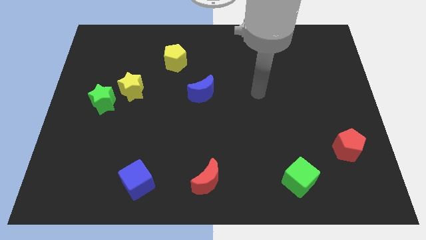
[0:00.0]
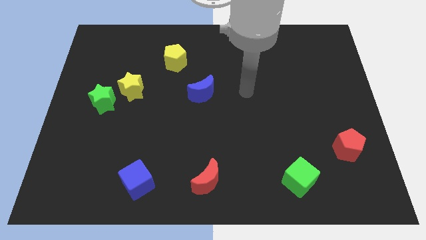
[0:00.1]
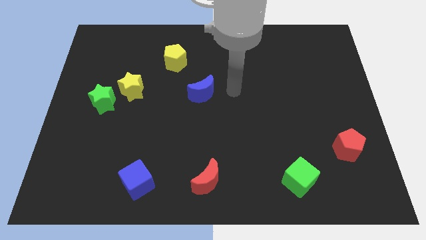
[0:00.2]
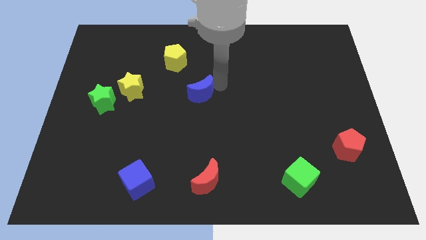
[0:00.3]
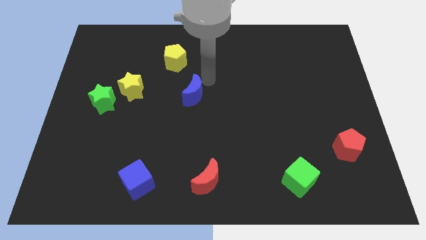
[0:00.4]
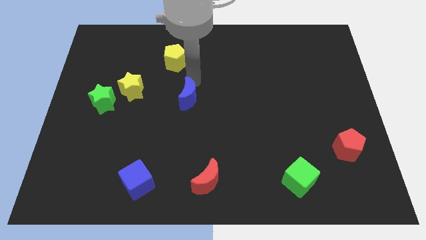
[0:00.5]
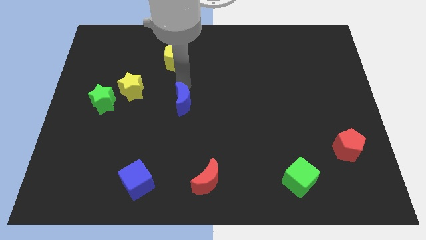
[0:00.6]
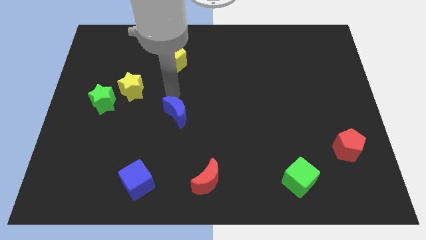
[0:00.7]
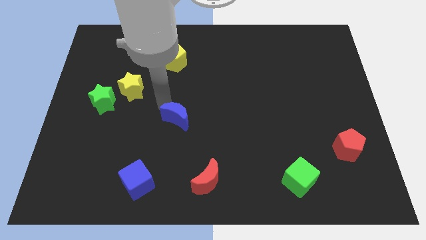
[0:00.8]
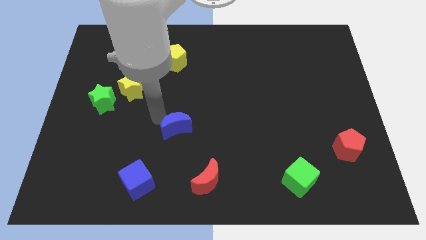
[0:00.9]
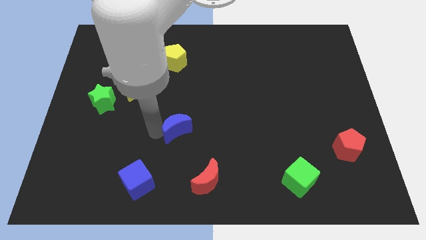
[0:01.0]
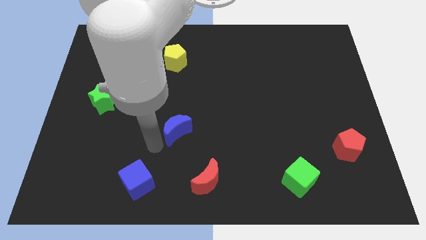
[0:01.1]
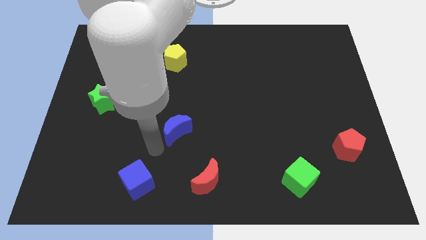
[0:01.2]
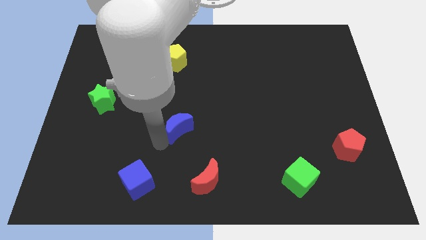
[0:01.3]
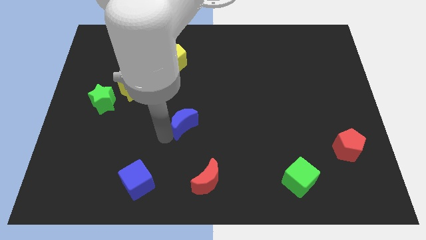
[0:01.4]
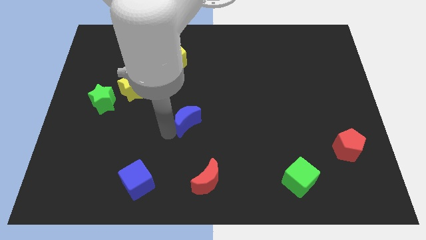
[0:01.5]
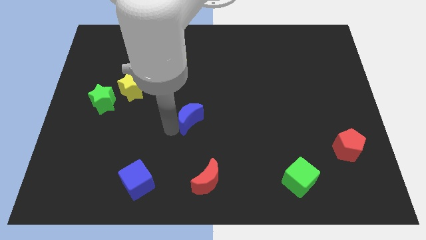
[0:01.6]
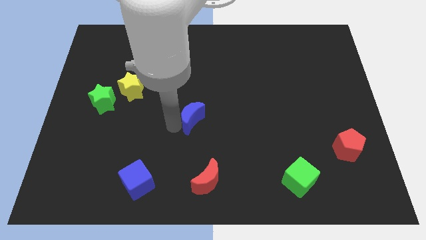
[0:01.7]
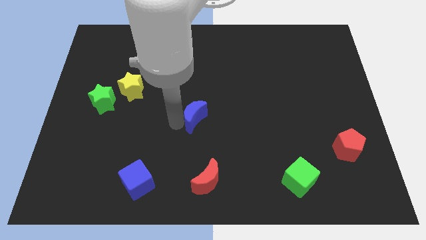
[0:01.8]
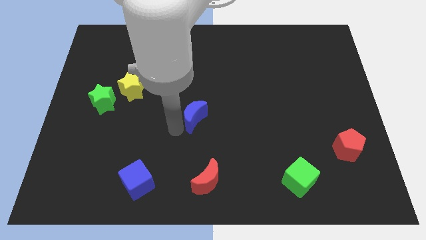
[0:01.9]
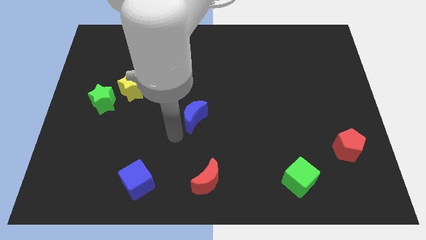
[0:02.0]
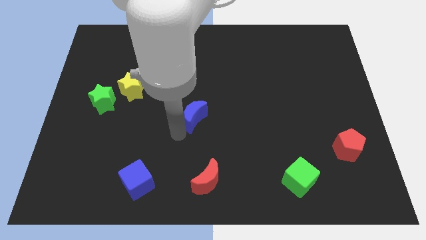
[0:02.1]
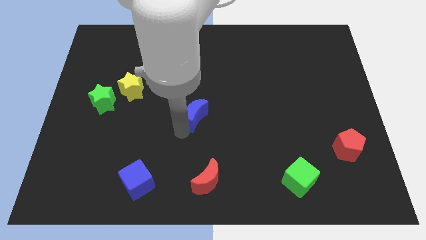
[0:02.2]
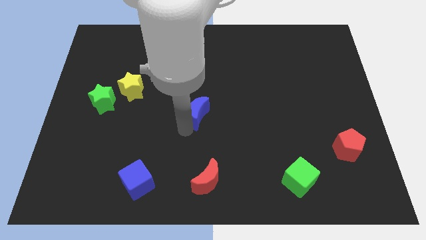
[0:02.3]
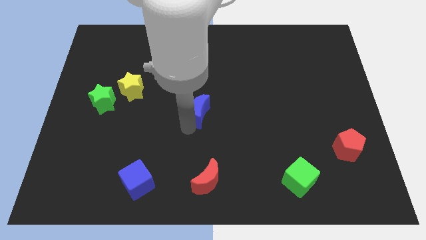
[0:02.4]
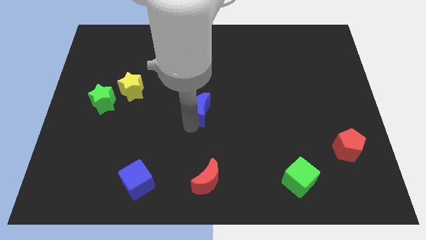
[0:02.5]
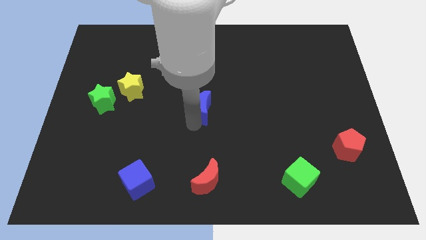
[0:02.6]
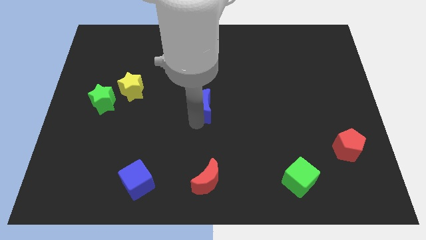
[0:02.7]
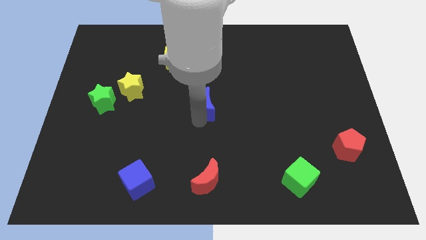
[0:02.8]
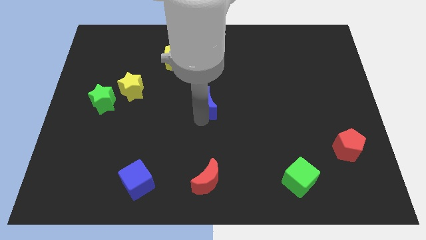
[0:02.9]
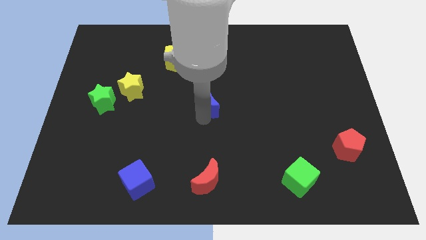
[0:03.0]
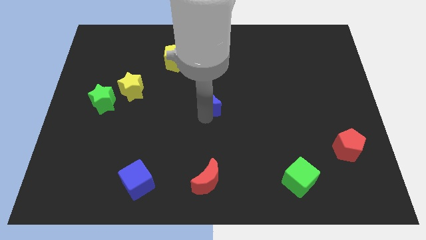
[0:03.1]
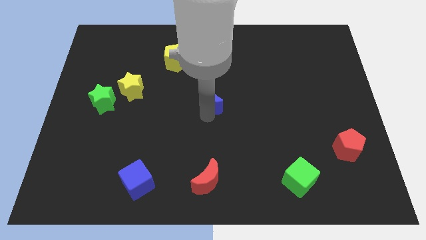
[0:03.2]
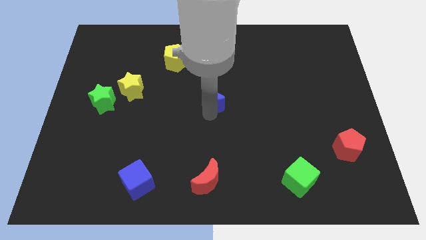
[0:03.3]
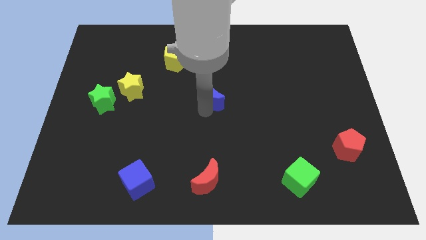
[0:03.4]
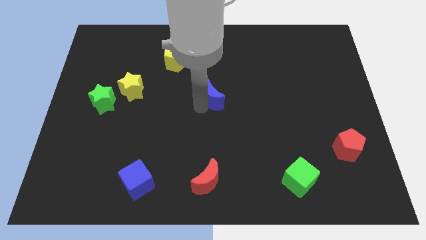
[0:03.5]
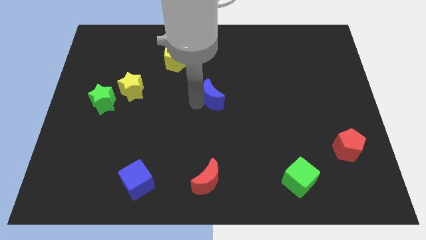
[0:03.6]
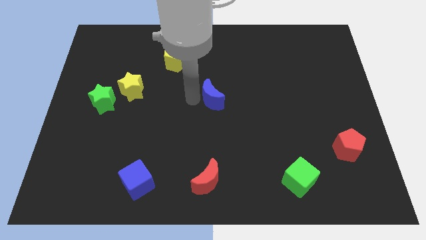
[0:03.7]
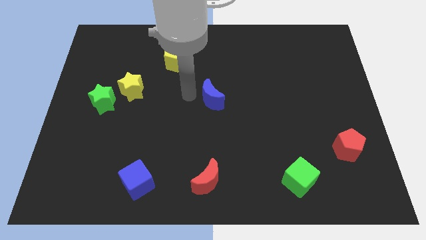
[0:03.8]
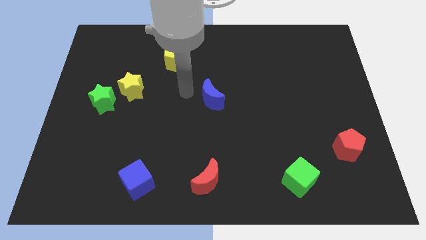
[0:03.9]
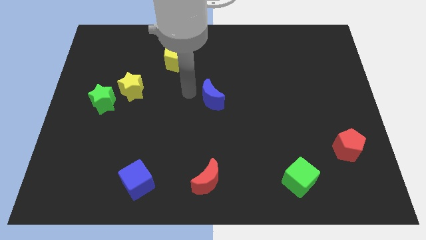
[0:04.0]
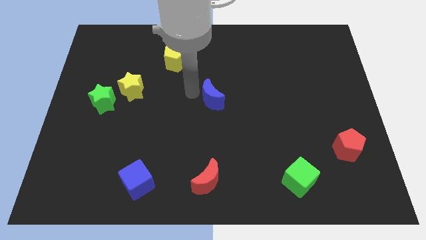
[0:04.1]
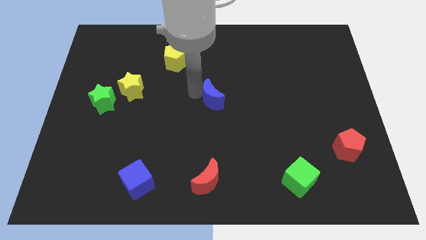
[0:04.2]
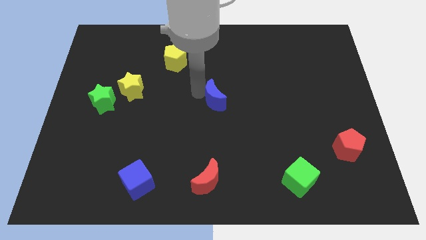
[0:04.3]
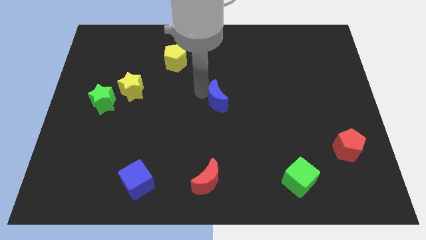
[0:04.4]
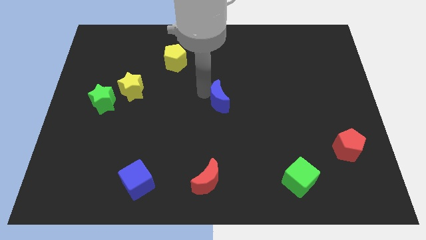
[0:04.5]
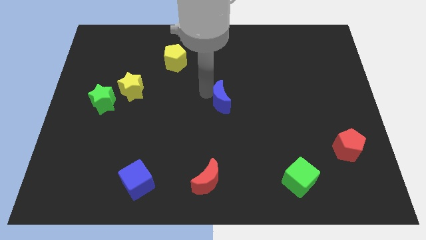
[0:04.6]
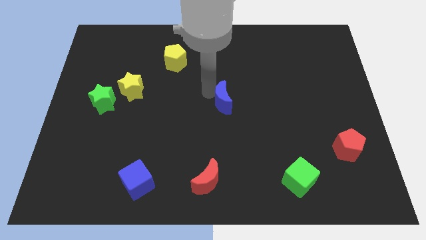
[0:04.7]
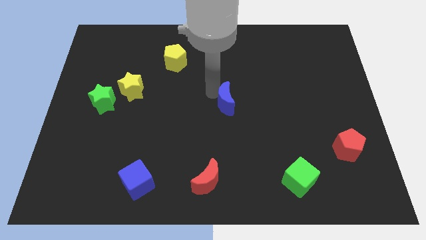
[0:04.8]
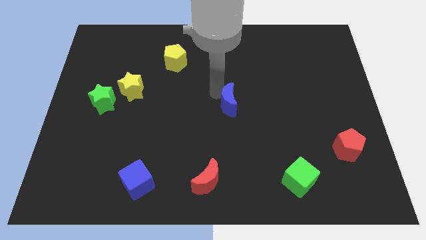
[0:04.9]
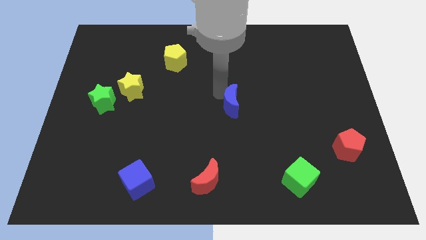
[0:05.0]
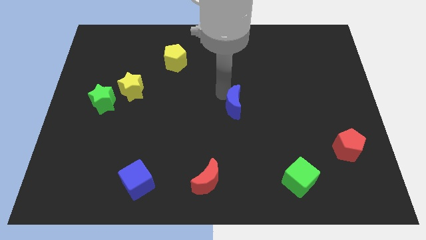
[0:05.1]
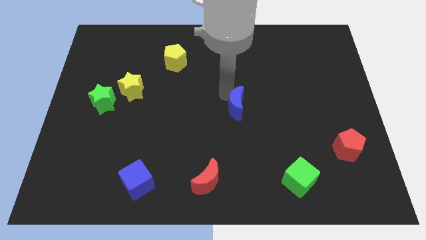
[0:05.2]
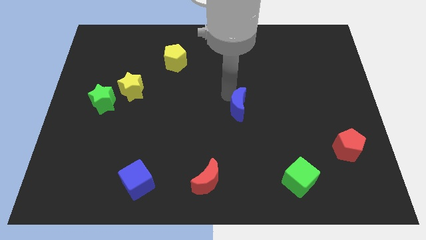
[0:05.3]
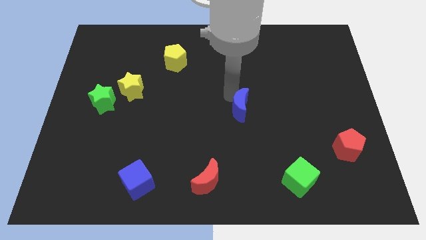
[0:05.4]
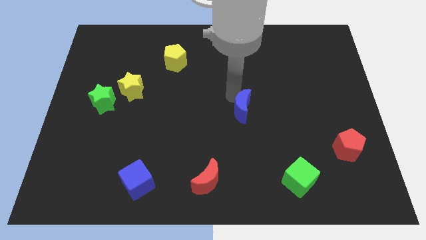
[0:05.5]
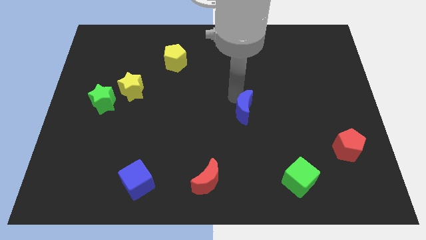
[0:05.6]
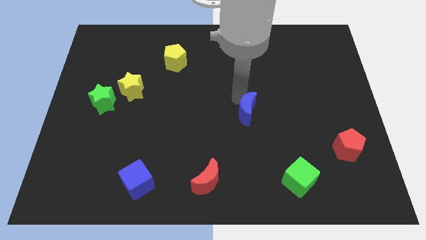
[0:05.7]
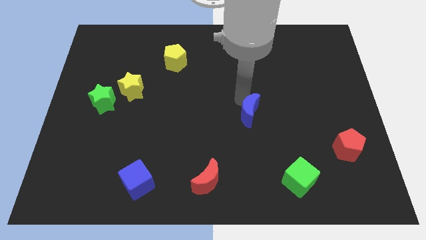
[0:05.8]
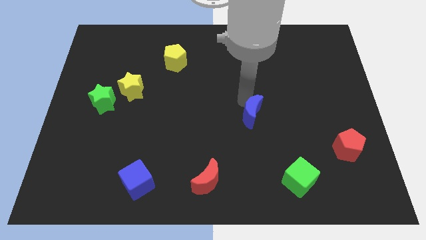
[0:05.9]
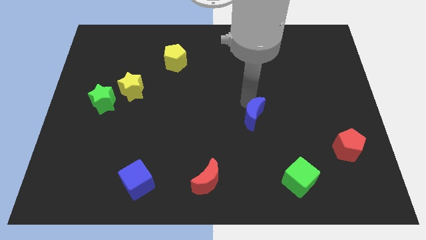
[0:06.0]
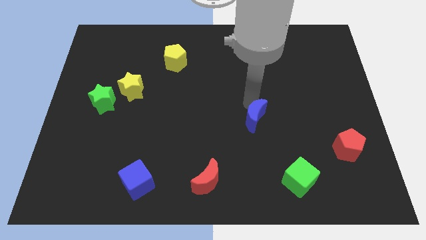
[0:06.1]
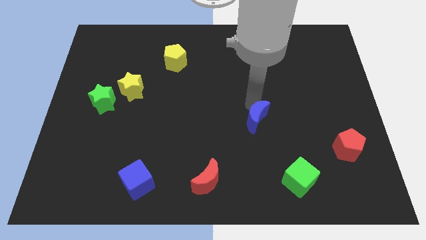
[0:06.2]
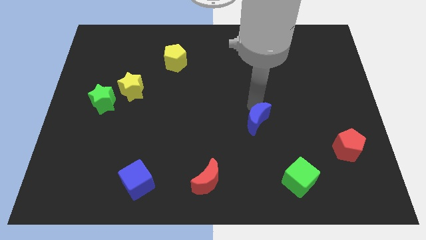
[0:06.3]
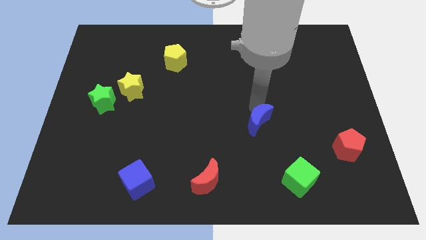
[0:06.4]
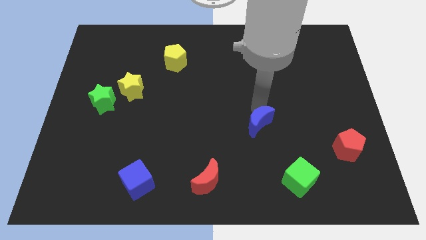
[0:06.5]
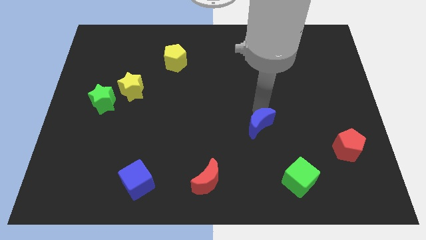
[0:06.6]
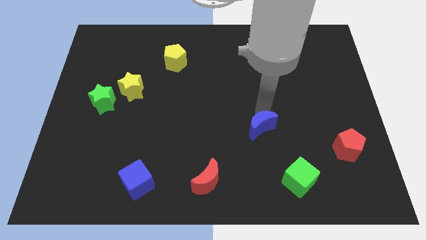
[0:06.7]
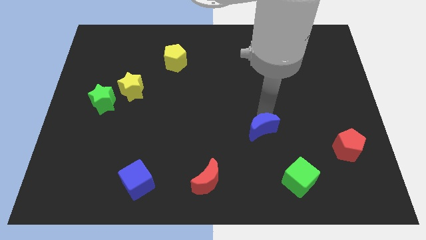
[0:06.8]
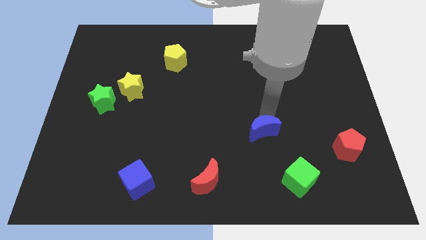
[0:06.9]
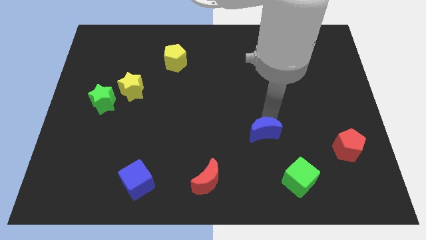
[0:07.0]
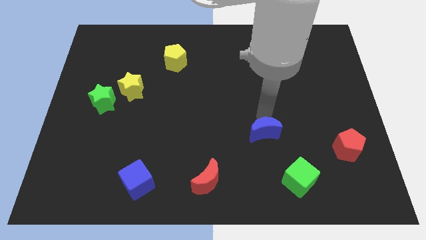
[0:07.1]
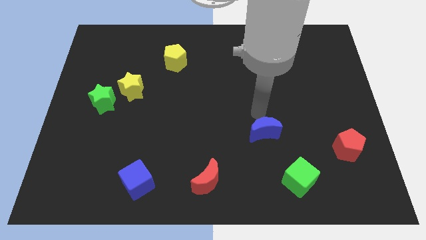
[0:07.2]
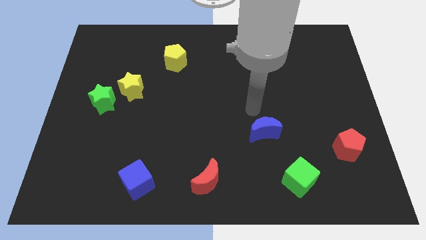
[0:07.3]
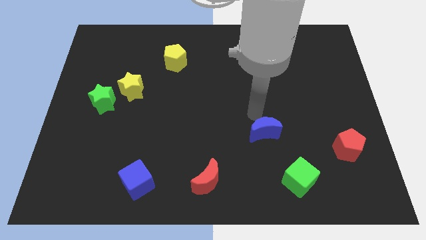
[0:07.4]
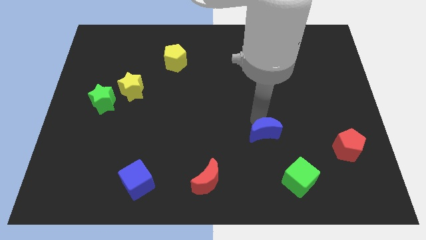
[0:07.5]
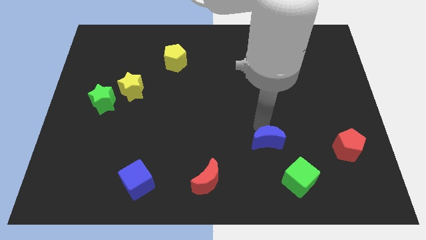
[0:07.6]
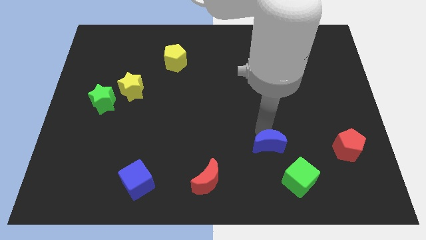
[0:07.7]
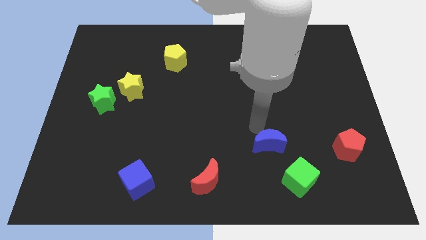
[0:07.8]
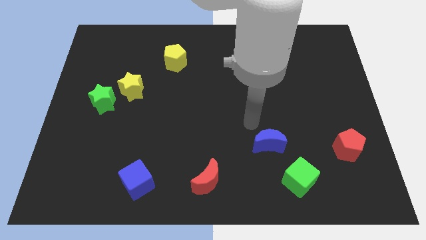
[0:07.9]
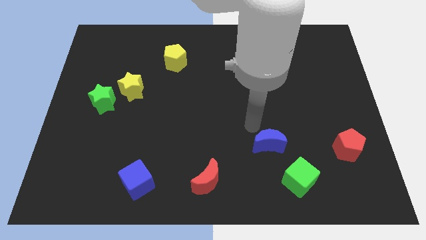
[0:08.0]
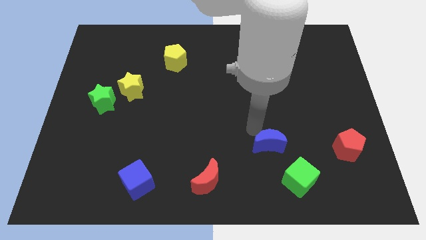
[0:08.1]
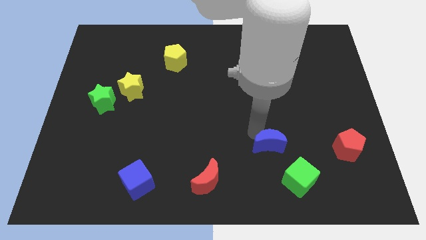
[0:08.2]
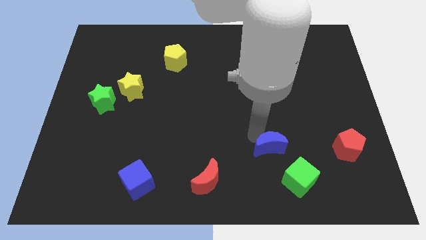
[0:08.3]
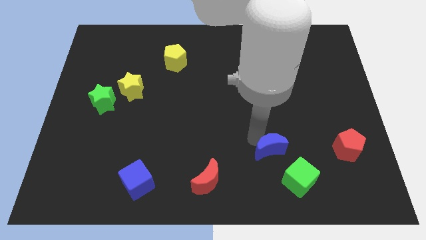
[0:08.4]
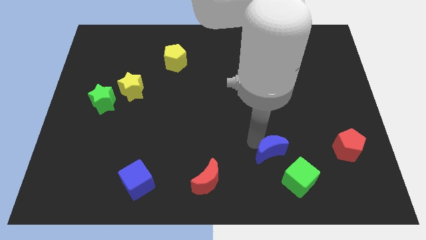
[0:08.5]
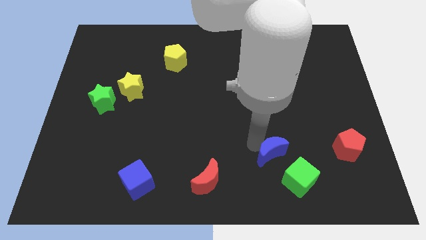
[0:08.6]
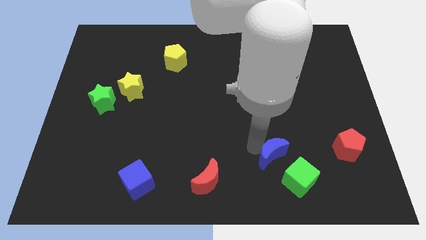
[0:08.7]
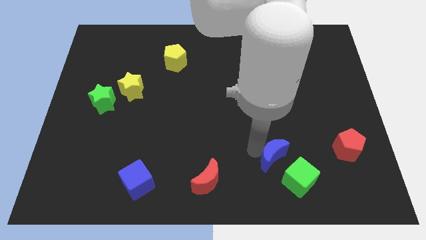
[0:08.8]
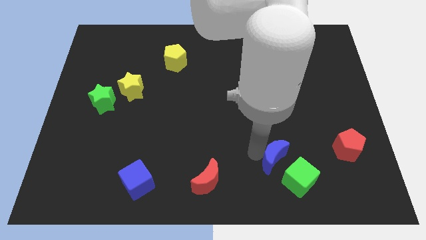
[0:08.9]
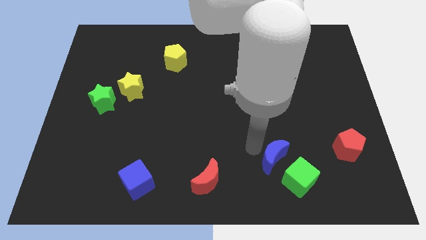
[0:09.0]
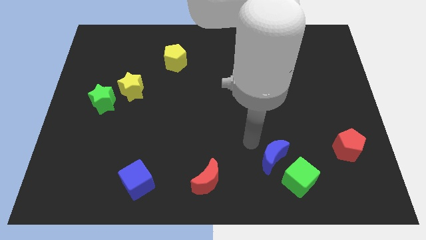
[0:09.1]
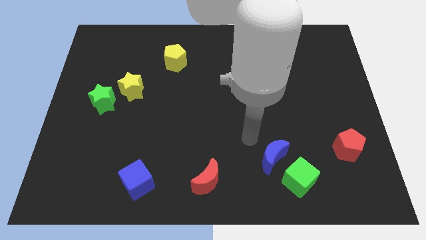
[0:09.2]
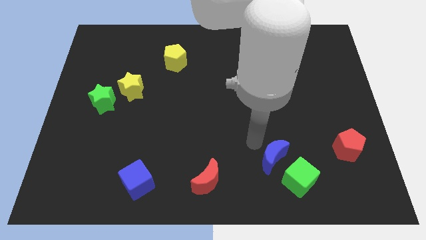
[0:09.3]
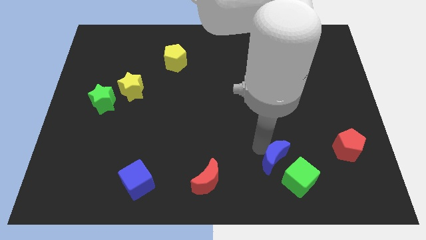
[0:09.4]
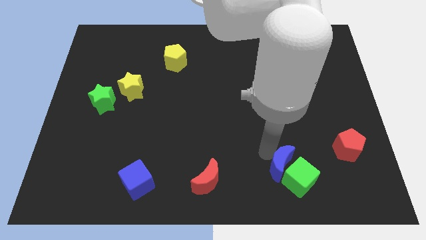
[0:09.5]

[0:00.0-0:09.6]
move the blue moon next to the green cube
